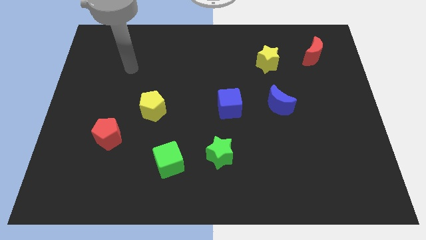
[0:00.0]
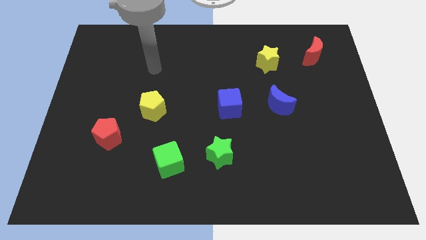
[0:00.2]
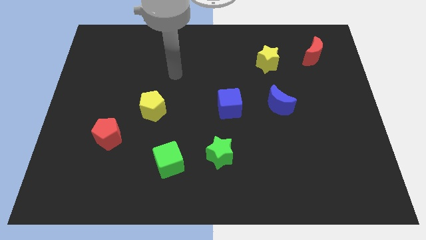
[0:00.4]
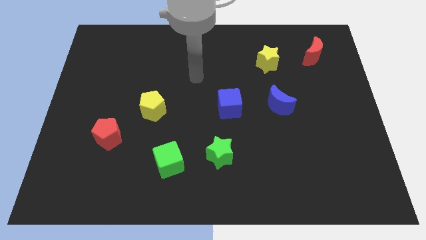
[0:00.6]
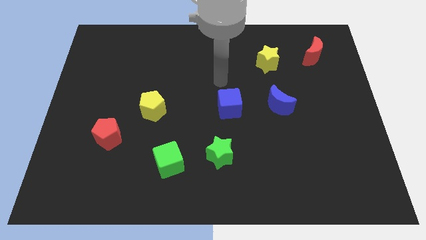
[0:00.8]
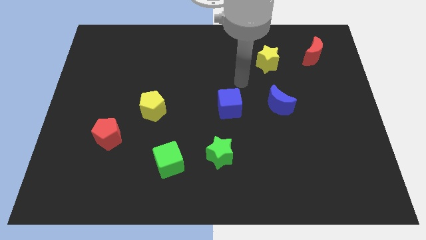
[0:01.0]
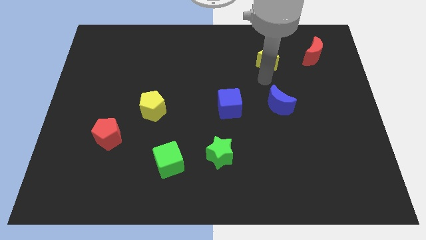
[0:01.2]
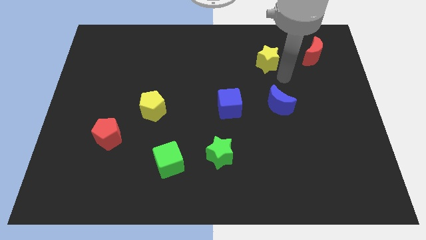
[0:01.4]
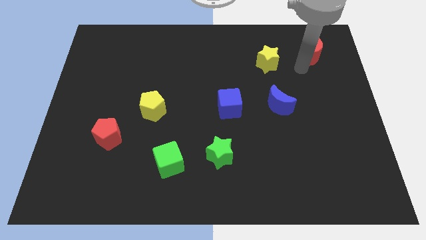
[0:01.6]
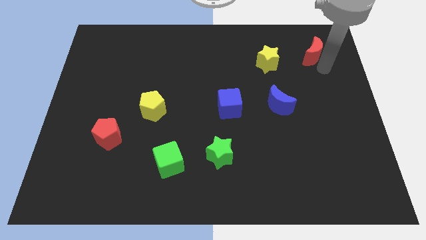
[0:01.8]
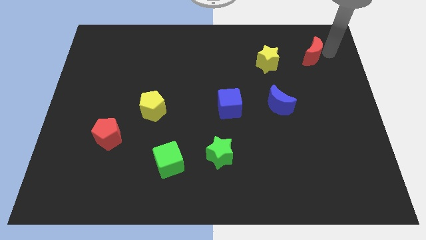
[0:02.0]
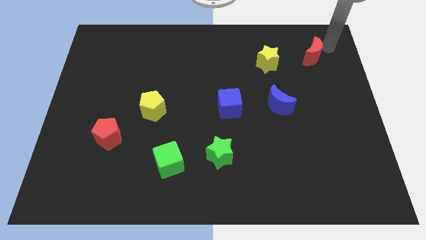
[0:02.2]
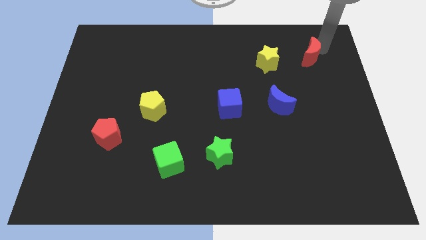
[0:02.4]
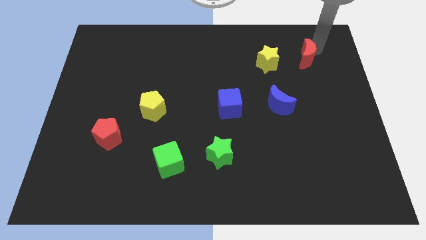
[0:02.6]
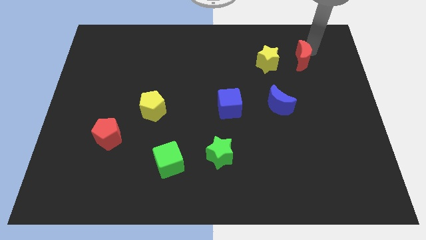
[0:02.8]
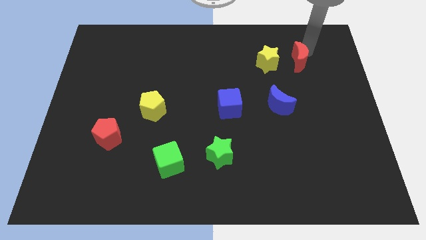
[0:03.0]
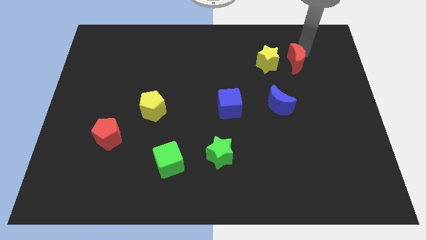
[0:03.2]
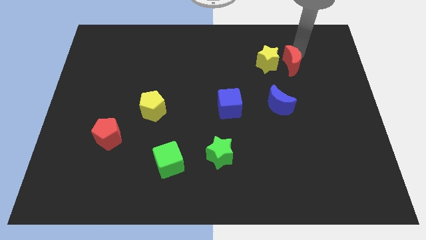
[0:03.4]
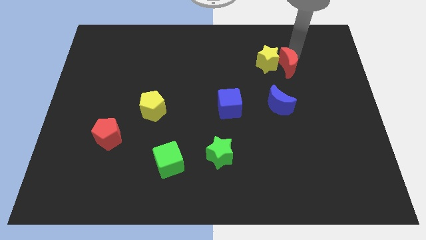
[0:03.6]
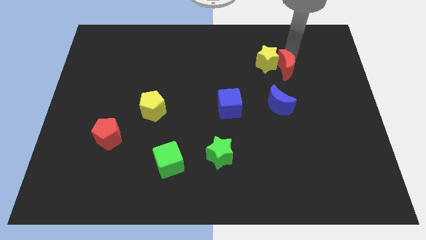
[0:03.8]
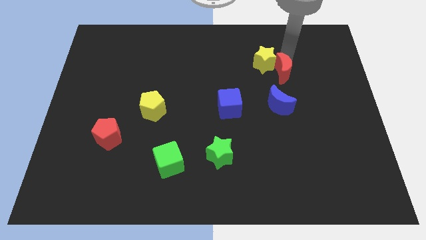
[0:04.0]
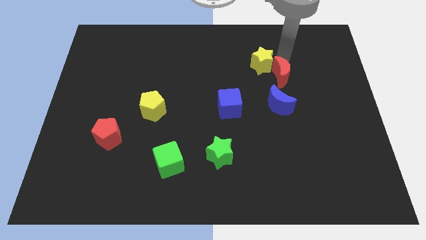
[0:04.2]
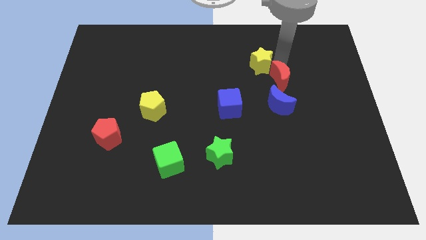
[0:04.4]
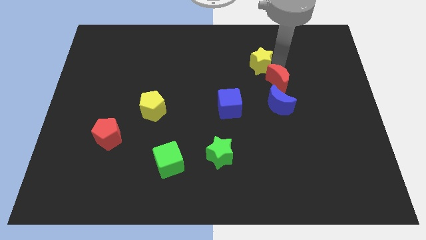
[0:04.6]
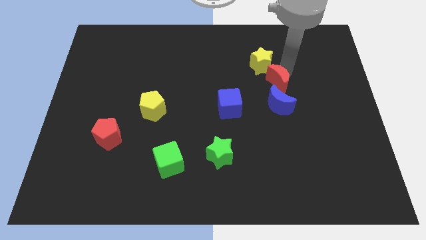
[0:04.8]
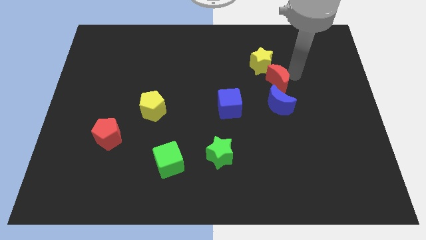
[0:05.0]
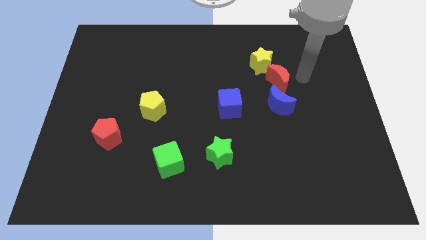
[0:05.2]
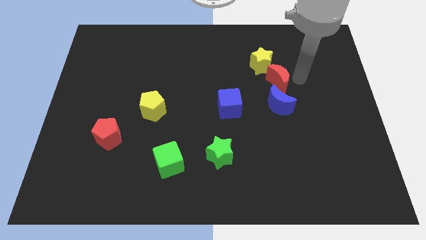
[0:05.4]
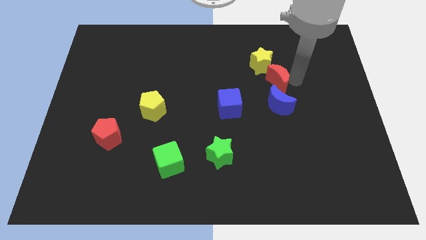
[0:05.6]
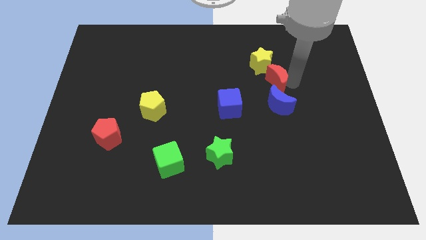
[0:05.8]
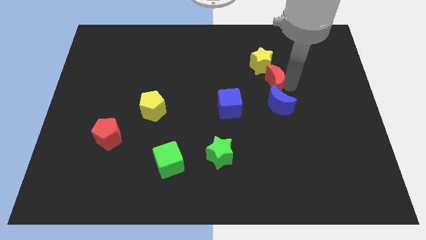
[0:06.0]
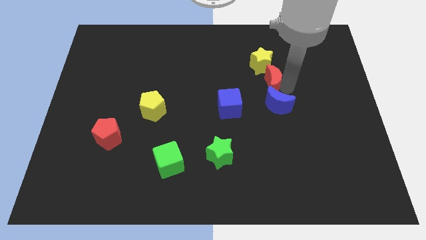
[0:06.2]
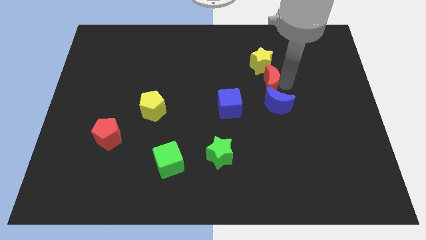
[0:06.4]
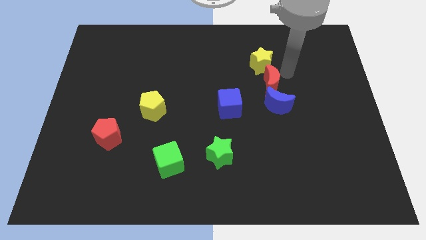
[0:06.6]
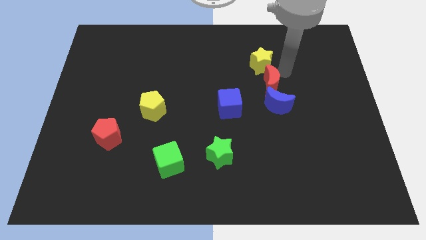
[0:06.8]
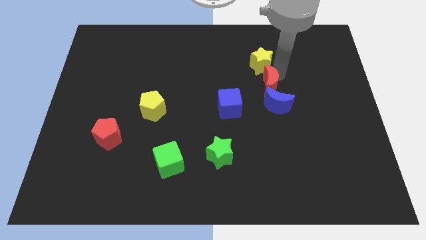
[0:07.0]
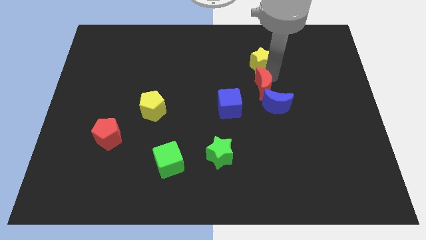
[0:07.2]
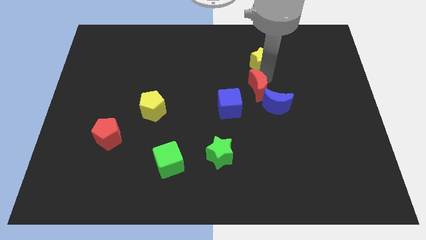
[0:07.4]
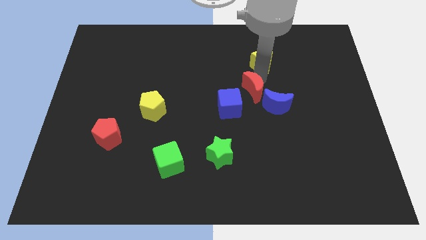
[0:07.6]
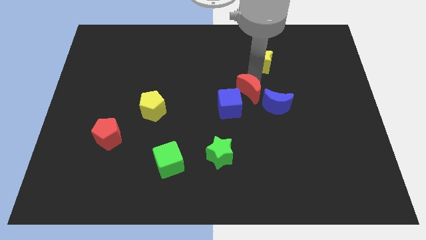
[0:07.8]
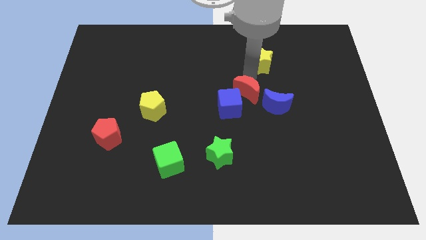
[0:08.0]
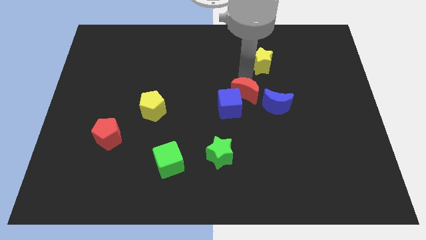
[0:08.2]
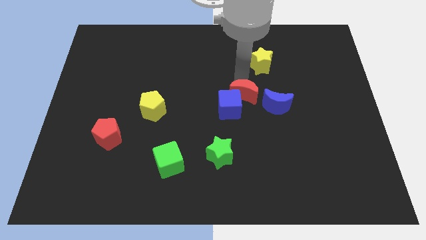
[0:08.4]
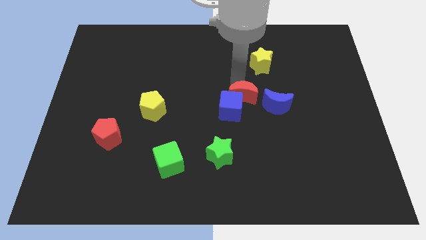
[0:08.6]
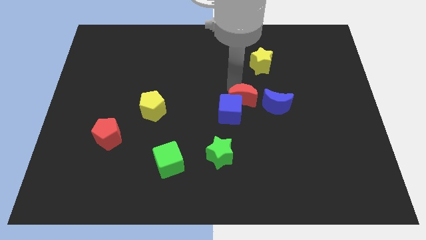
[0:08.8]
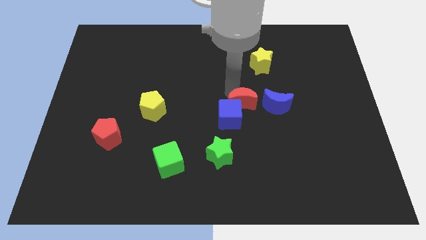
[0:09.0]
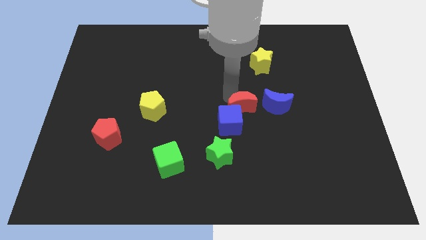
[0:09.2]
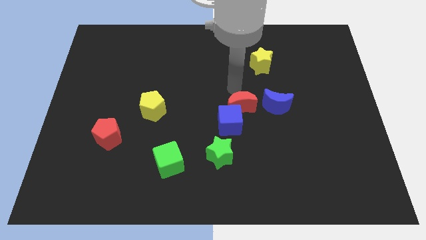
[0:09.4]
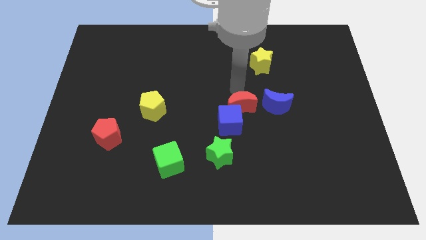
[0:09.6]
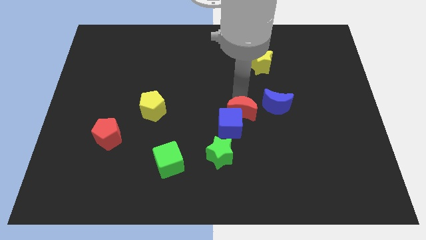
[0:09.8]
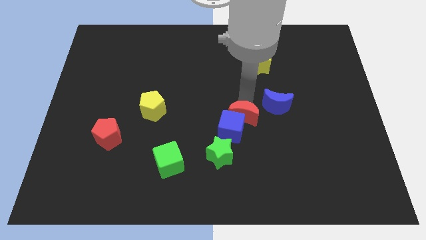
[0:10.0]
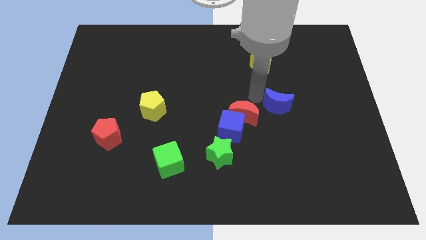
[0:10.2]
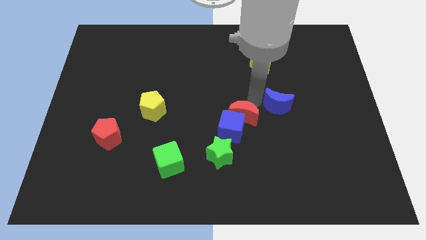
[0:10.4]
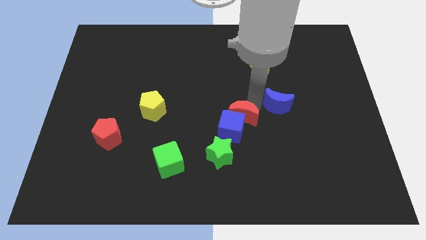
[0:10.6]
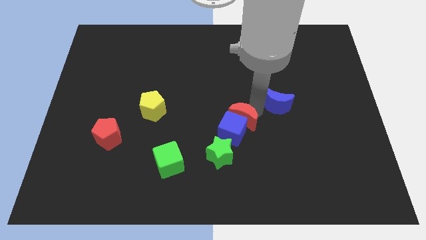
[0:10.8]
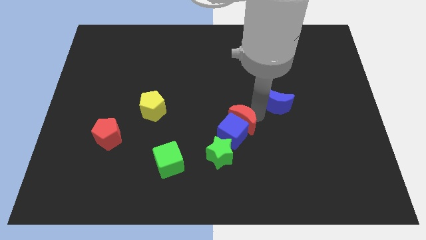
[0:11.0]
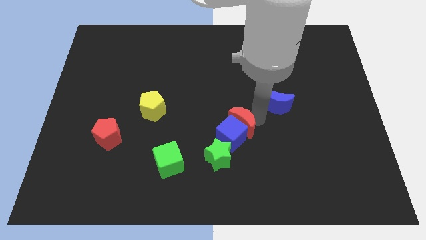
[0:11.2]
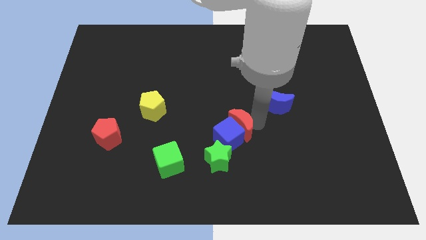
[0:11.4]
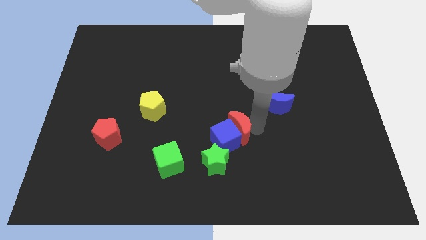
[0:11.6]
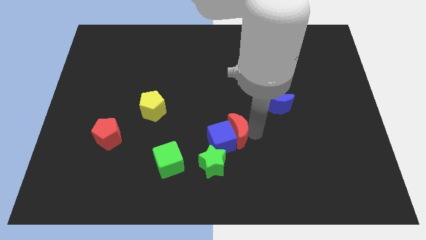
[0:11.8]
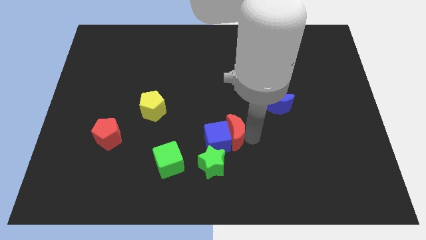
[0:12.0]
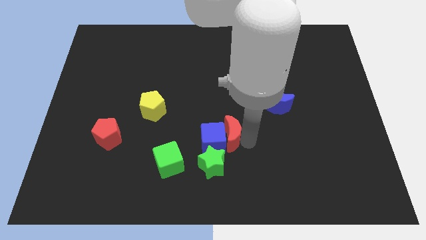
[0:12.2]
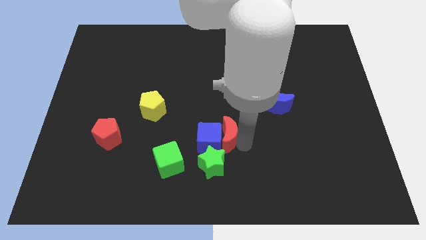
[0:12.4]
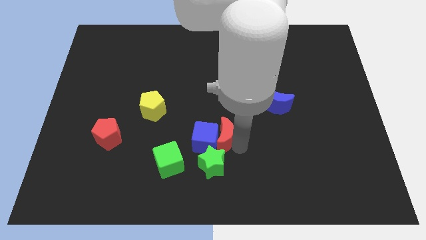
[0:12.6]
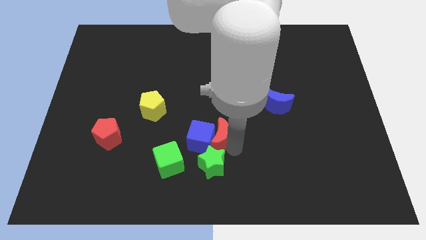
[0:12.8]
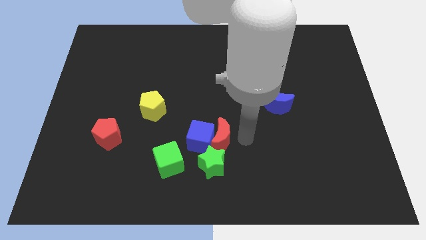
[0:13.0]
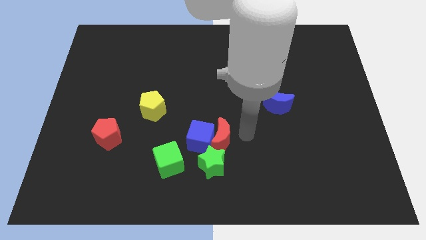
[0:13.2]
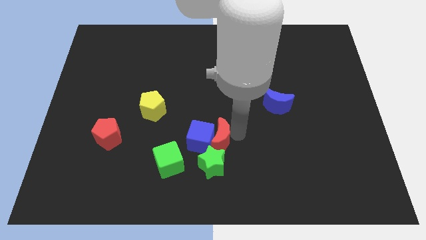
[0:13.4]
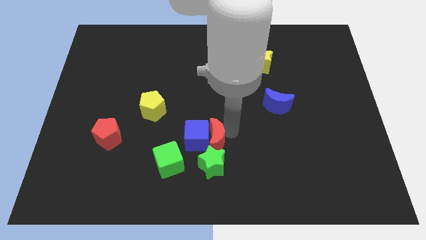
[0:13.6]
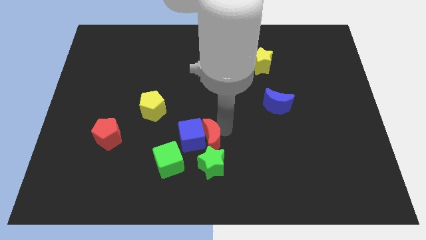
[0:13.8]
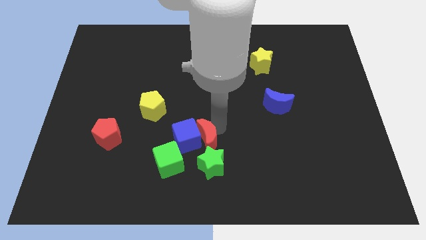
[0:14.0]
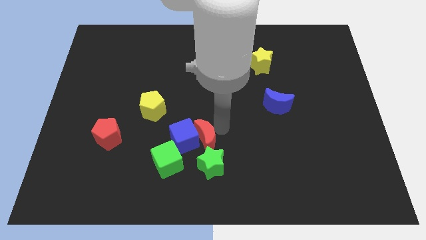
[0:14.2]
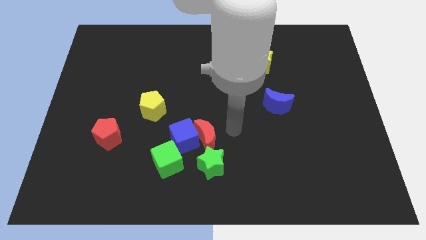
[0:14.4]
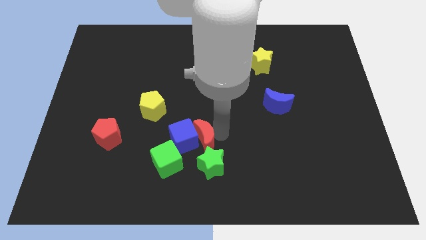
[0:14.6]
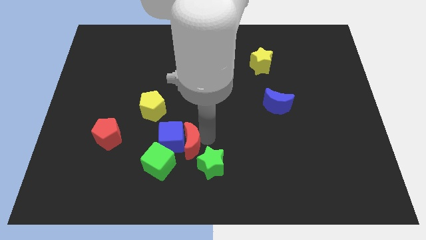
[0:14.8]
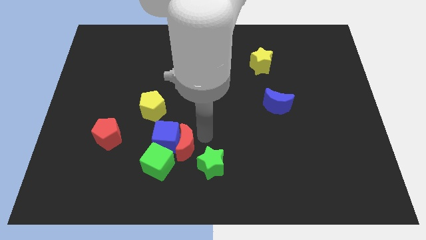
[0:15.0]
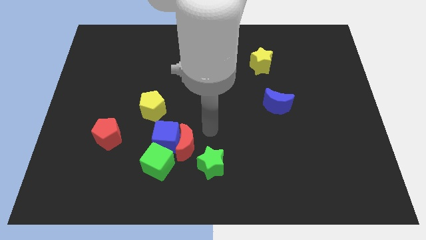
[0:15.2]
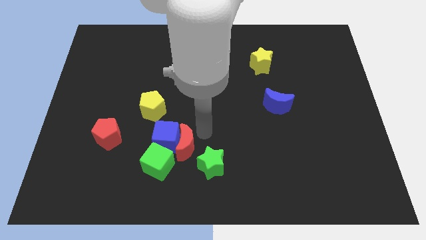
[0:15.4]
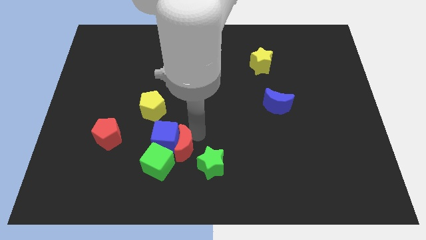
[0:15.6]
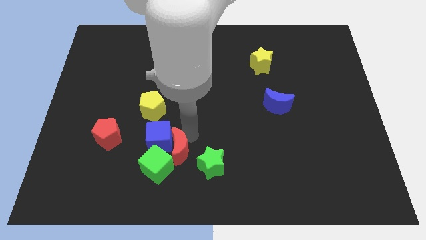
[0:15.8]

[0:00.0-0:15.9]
move the red moon next to the green cube
